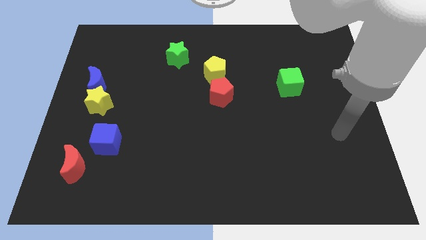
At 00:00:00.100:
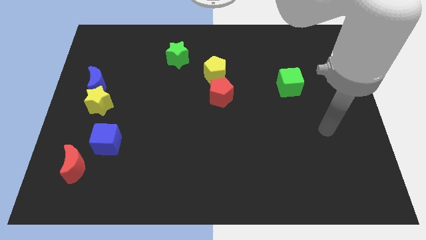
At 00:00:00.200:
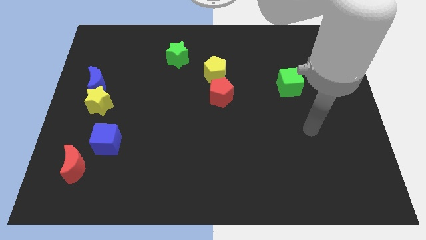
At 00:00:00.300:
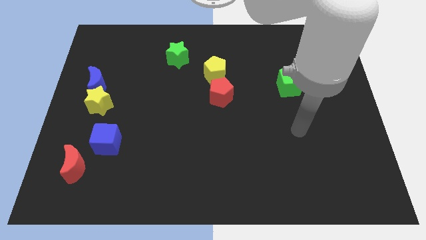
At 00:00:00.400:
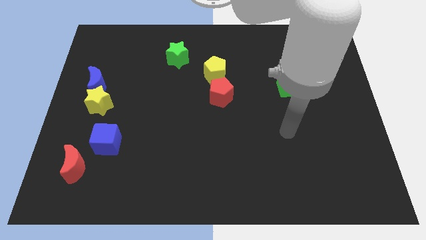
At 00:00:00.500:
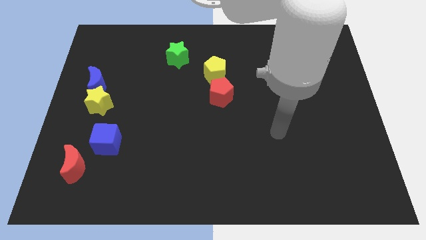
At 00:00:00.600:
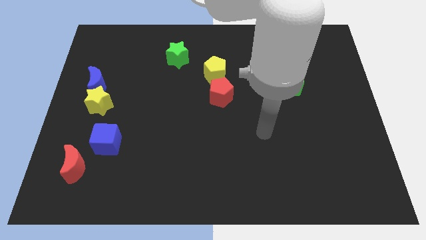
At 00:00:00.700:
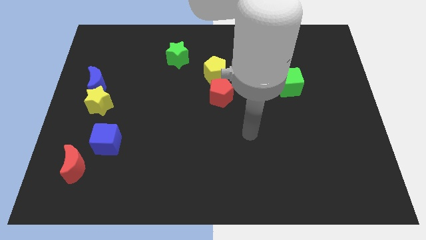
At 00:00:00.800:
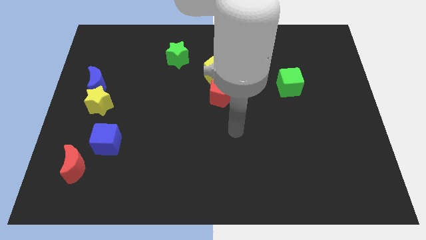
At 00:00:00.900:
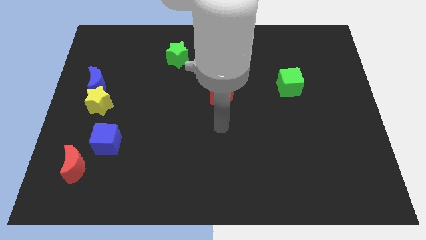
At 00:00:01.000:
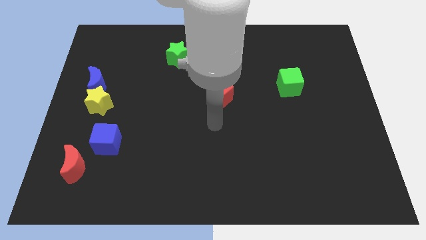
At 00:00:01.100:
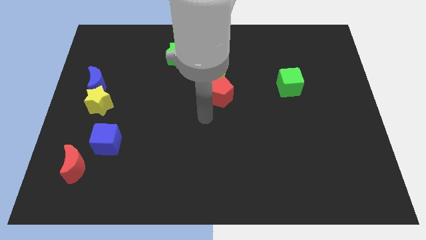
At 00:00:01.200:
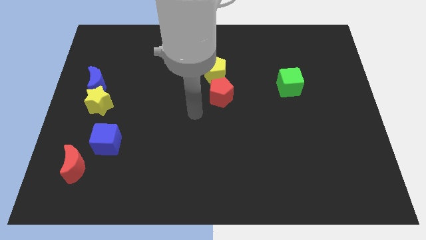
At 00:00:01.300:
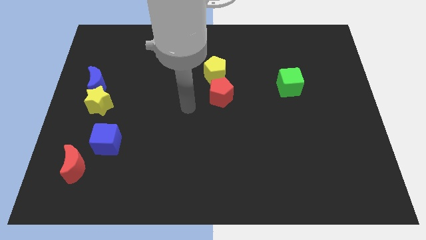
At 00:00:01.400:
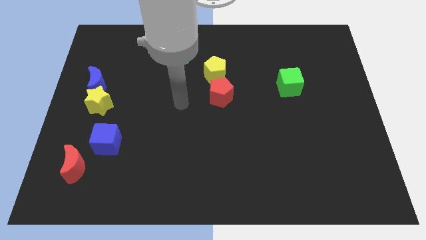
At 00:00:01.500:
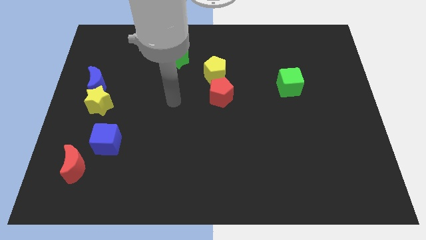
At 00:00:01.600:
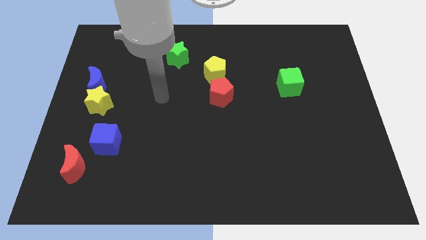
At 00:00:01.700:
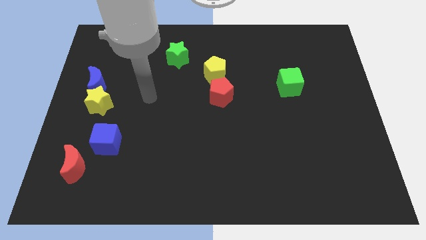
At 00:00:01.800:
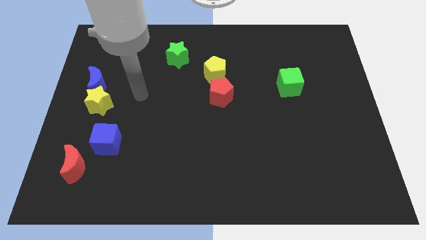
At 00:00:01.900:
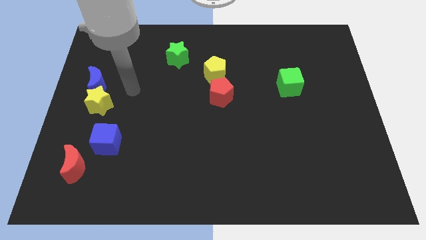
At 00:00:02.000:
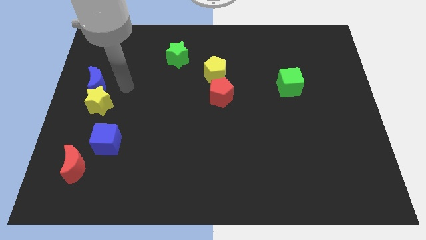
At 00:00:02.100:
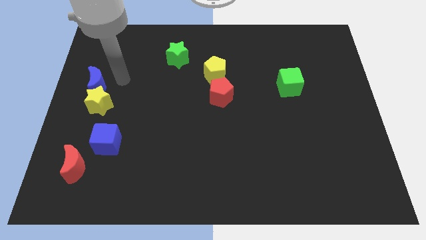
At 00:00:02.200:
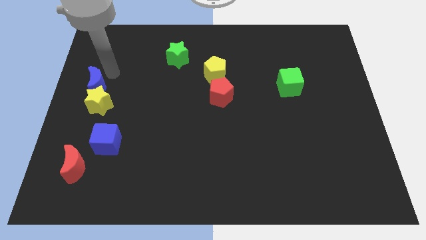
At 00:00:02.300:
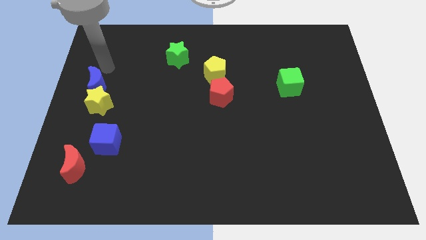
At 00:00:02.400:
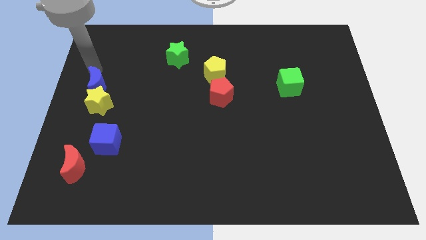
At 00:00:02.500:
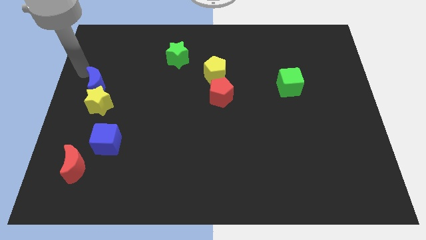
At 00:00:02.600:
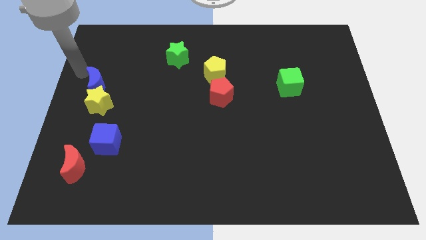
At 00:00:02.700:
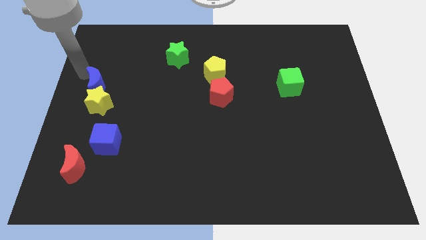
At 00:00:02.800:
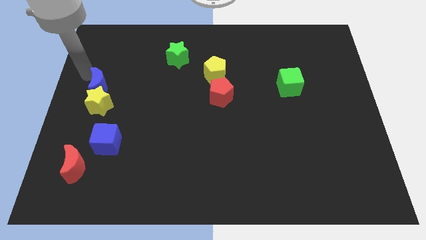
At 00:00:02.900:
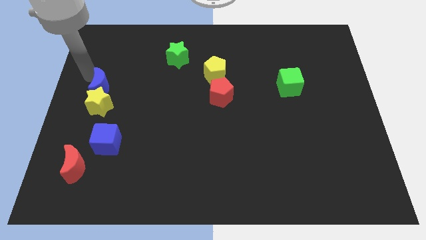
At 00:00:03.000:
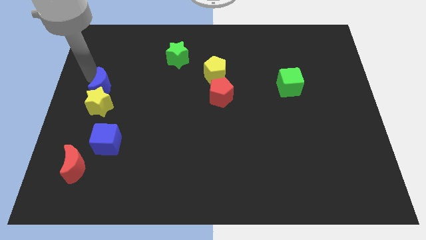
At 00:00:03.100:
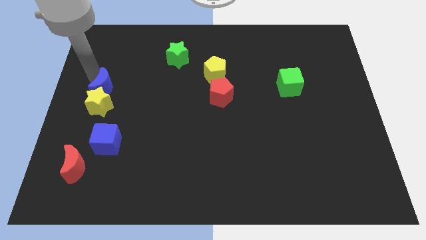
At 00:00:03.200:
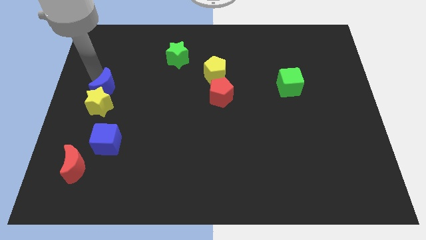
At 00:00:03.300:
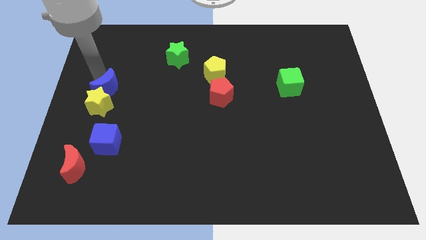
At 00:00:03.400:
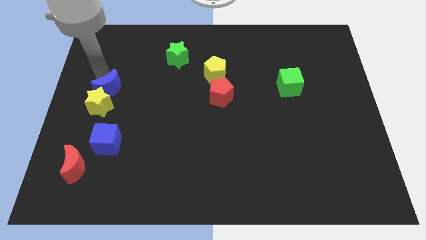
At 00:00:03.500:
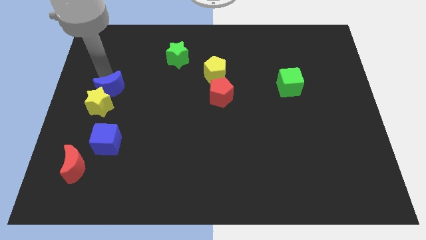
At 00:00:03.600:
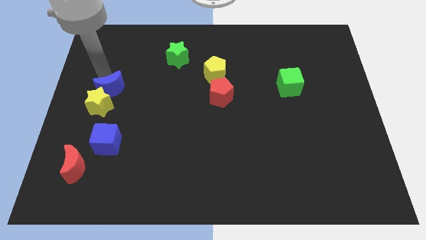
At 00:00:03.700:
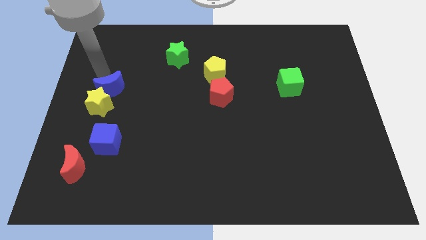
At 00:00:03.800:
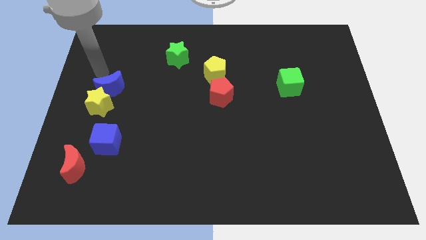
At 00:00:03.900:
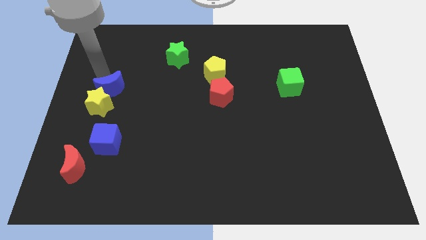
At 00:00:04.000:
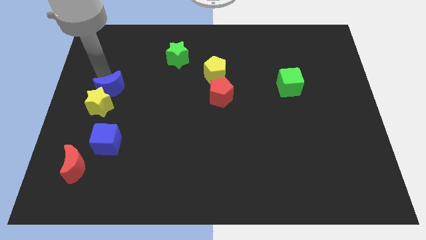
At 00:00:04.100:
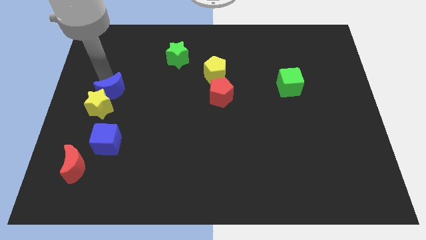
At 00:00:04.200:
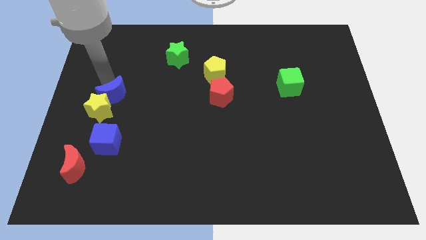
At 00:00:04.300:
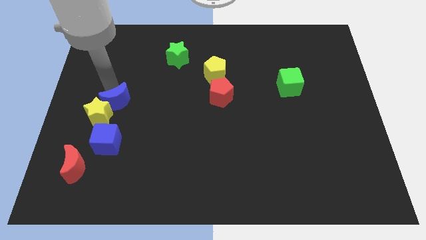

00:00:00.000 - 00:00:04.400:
push the blue moon a bit diagonally down and to the right

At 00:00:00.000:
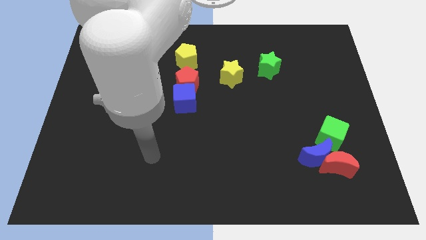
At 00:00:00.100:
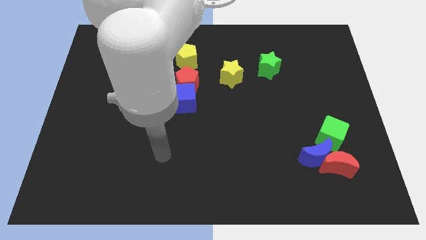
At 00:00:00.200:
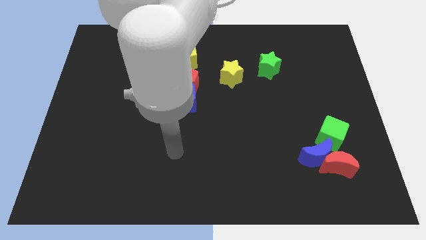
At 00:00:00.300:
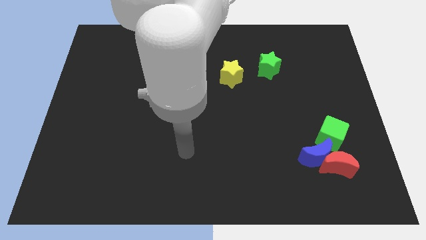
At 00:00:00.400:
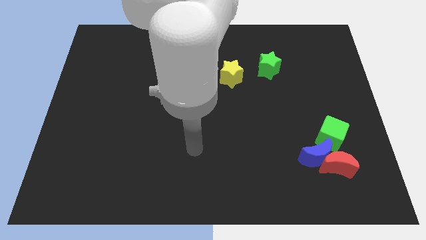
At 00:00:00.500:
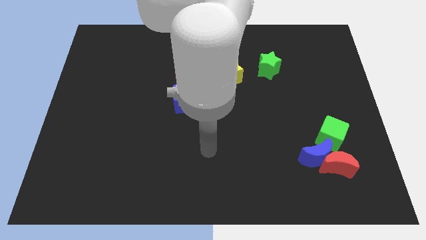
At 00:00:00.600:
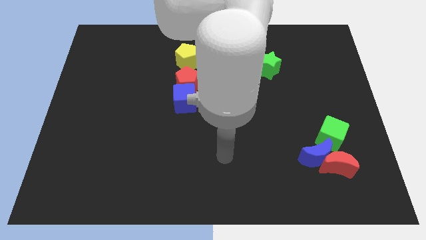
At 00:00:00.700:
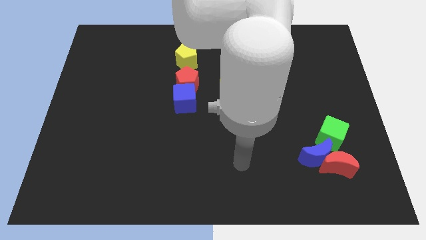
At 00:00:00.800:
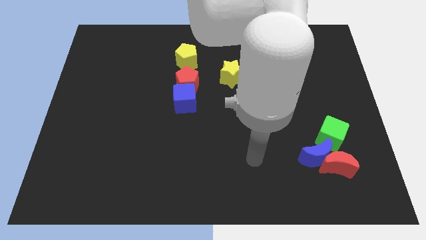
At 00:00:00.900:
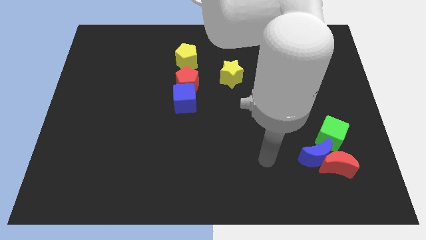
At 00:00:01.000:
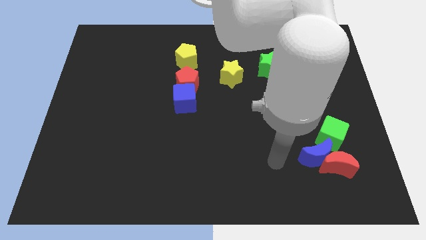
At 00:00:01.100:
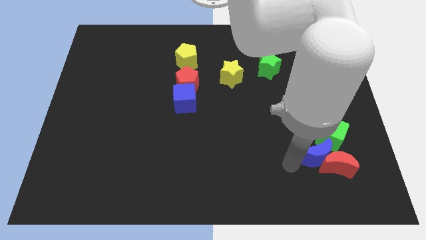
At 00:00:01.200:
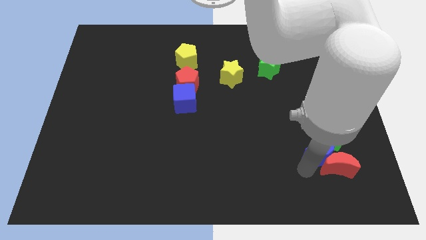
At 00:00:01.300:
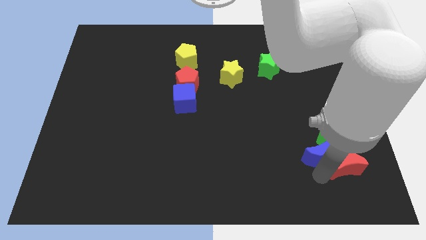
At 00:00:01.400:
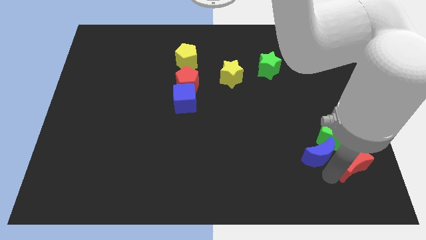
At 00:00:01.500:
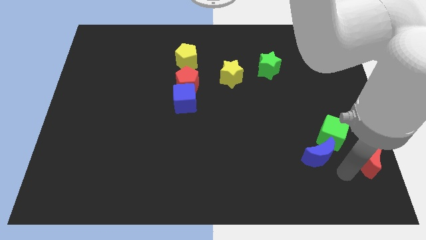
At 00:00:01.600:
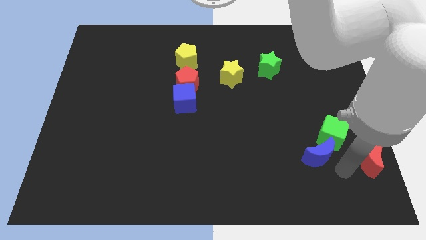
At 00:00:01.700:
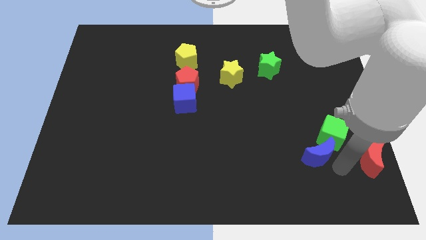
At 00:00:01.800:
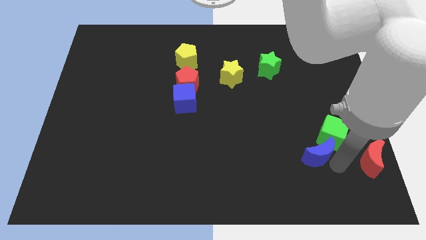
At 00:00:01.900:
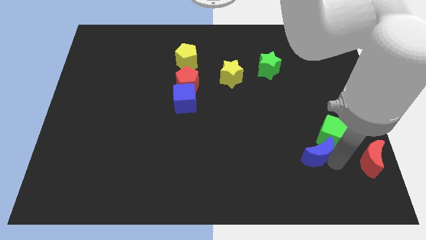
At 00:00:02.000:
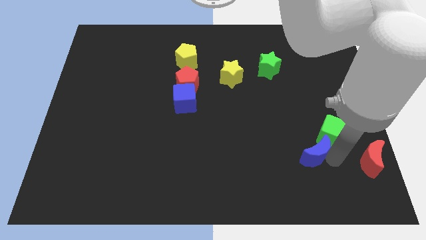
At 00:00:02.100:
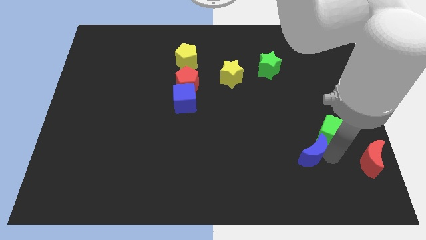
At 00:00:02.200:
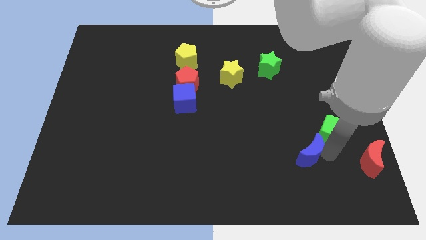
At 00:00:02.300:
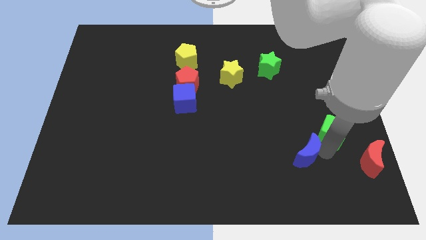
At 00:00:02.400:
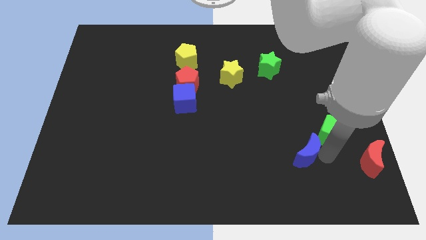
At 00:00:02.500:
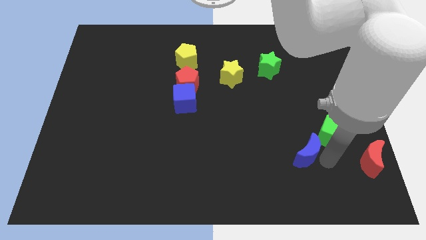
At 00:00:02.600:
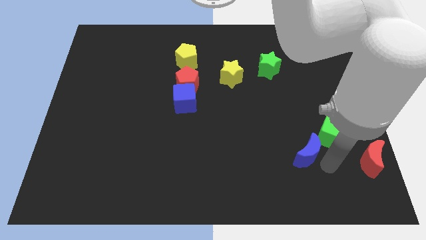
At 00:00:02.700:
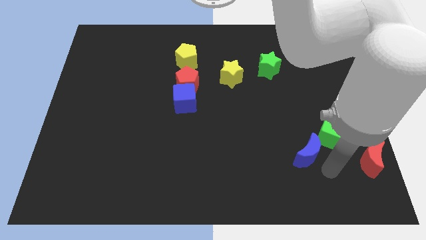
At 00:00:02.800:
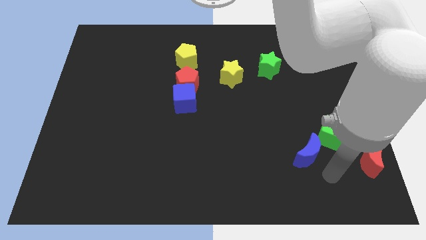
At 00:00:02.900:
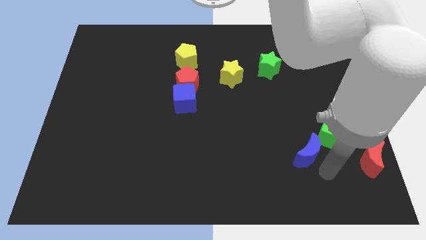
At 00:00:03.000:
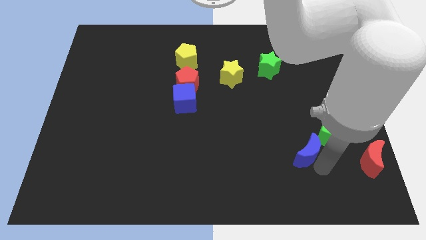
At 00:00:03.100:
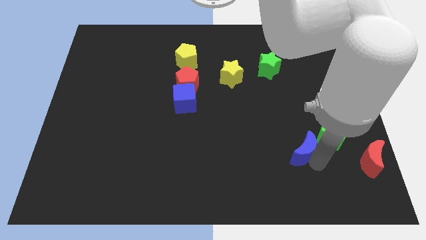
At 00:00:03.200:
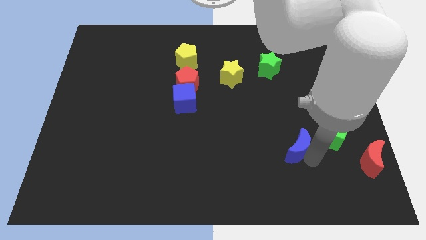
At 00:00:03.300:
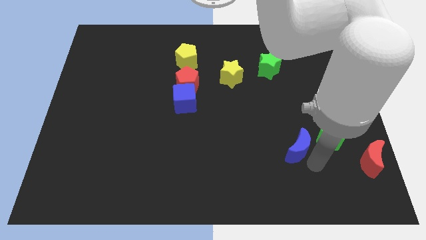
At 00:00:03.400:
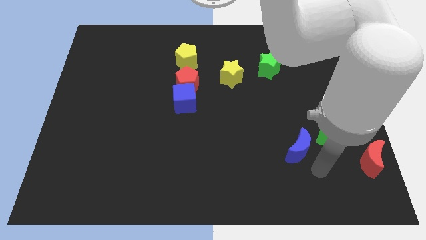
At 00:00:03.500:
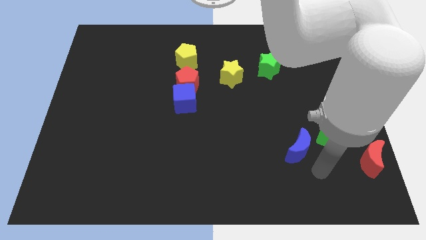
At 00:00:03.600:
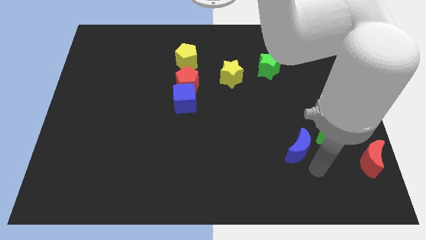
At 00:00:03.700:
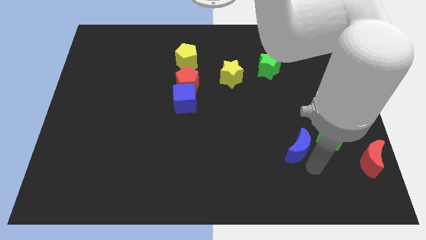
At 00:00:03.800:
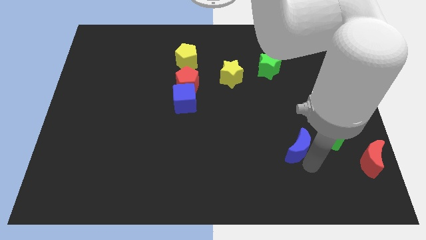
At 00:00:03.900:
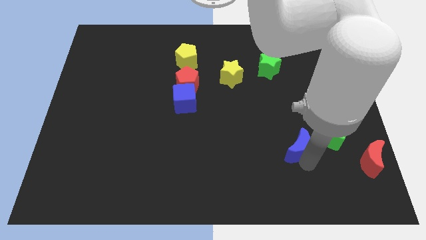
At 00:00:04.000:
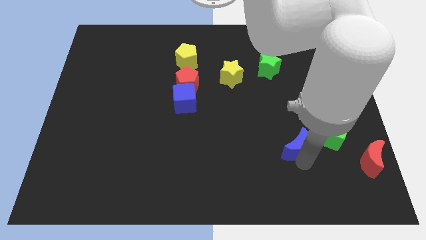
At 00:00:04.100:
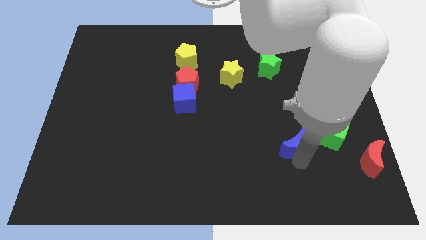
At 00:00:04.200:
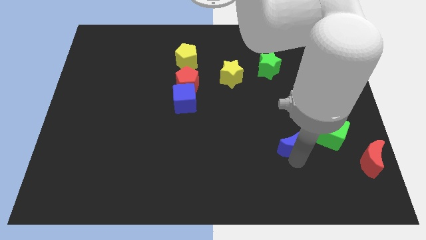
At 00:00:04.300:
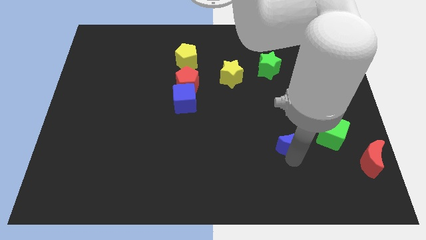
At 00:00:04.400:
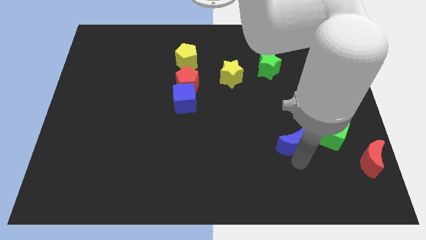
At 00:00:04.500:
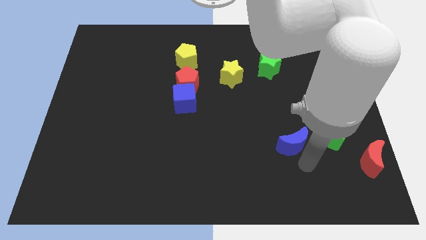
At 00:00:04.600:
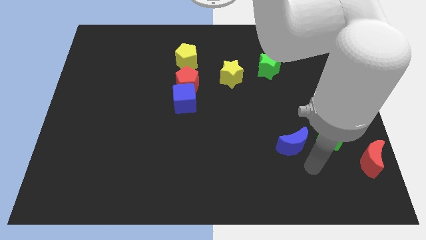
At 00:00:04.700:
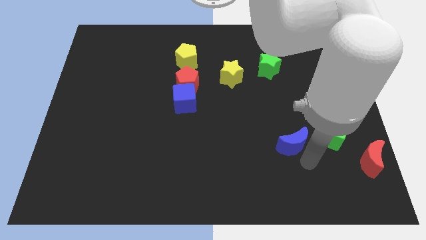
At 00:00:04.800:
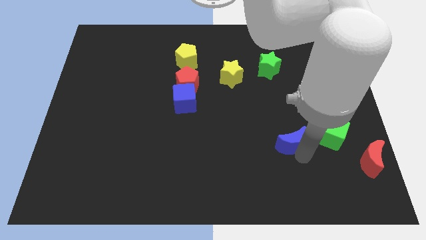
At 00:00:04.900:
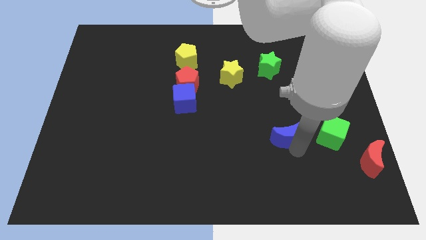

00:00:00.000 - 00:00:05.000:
slide the blue moon upwards and left diagonally a little bit
